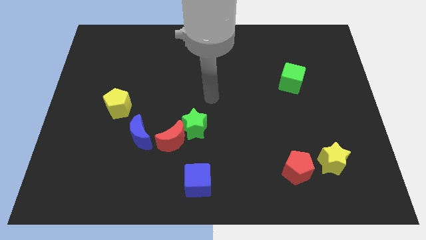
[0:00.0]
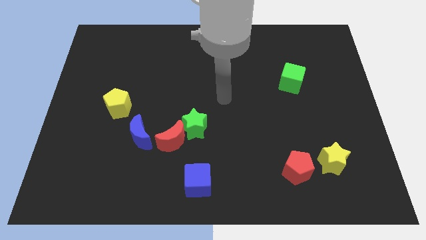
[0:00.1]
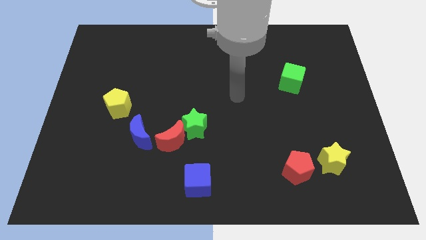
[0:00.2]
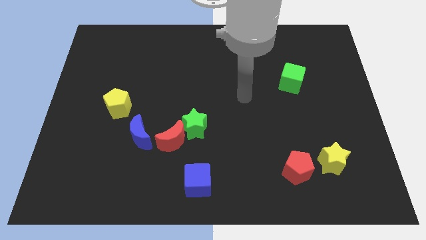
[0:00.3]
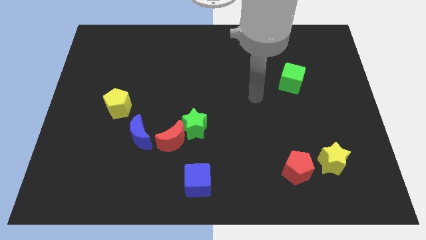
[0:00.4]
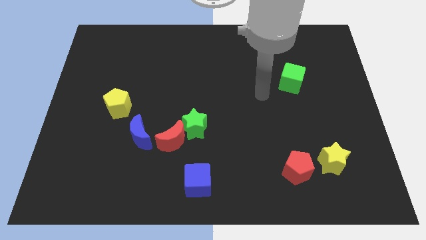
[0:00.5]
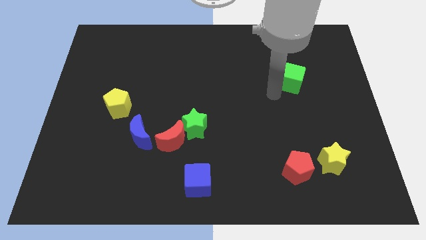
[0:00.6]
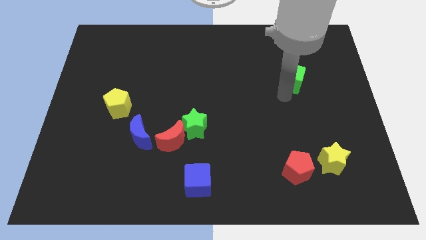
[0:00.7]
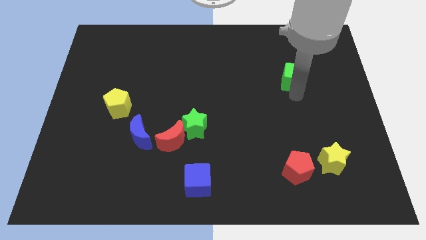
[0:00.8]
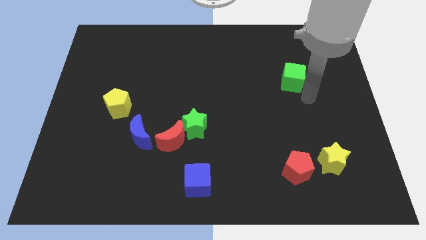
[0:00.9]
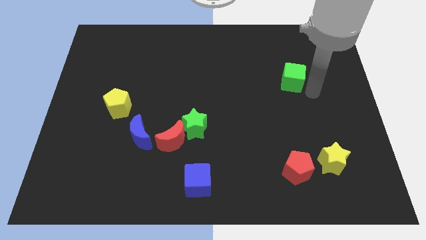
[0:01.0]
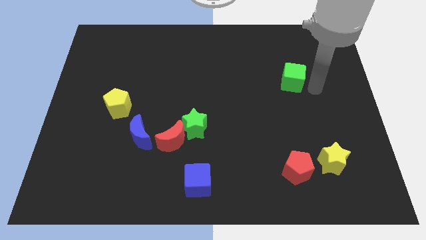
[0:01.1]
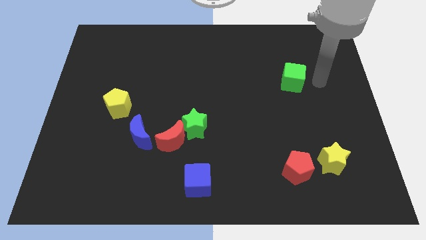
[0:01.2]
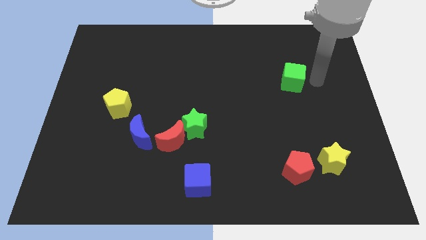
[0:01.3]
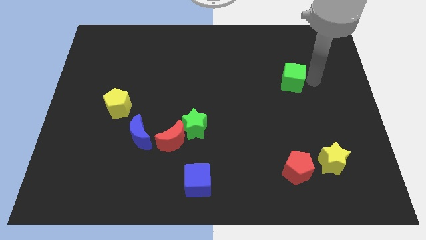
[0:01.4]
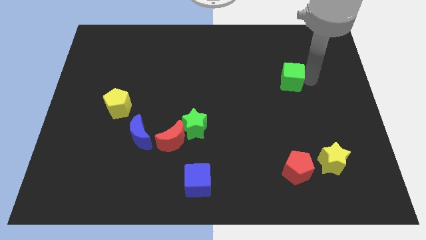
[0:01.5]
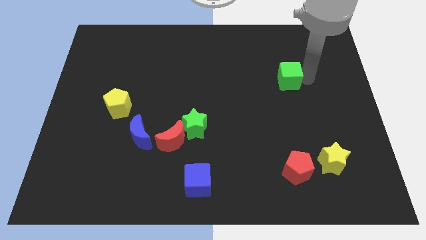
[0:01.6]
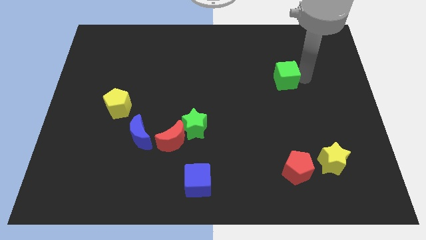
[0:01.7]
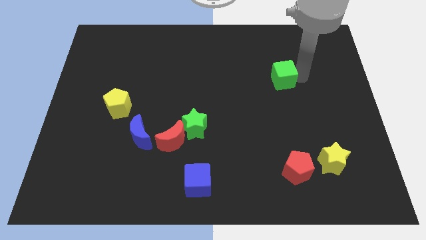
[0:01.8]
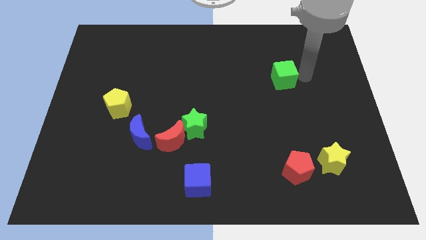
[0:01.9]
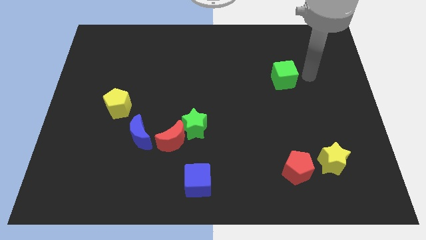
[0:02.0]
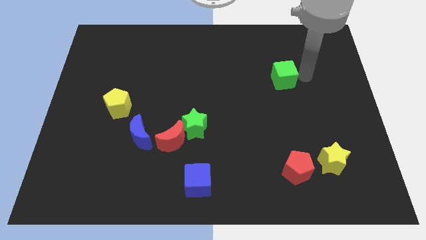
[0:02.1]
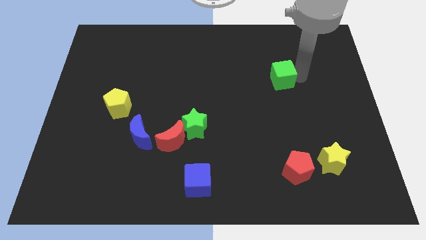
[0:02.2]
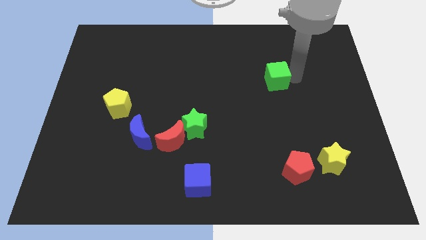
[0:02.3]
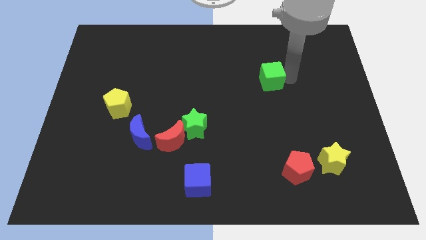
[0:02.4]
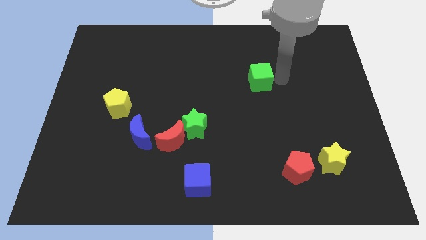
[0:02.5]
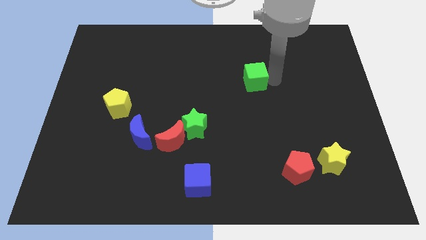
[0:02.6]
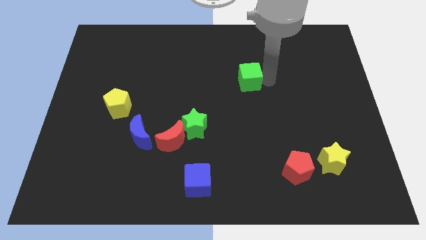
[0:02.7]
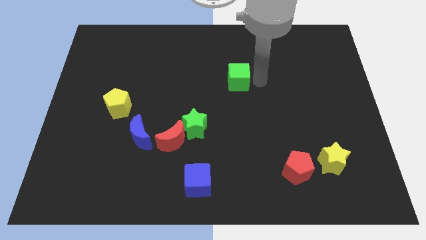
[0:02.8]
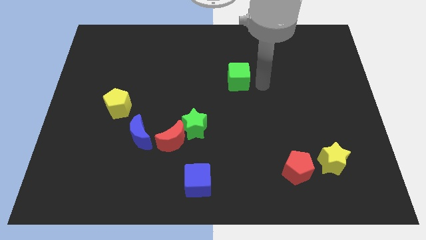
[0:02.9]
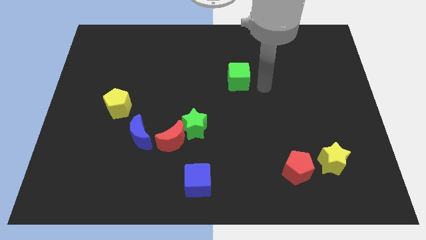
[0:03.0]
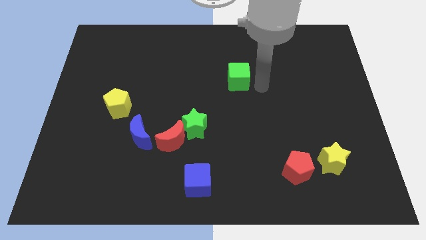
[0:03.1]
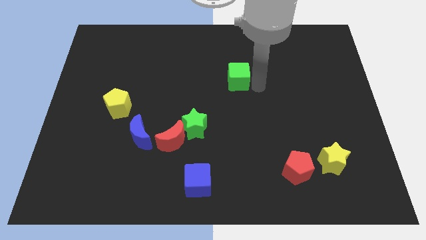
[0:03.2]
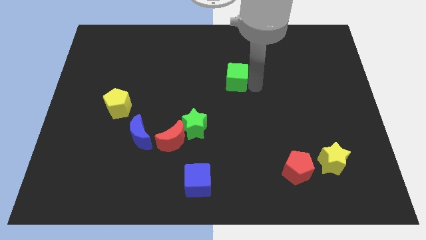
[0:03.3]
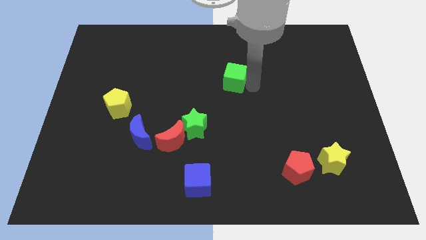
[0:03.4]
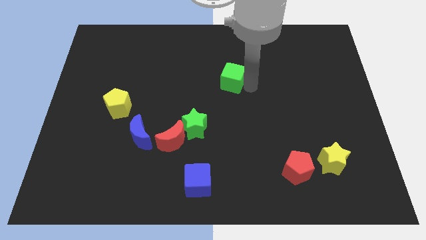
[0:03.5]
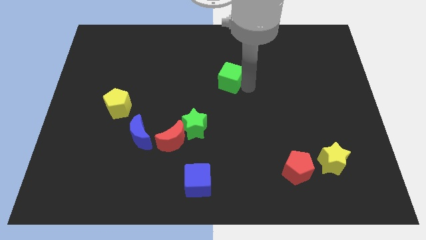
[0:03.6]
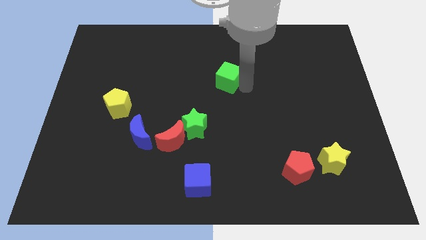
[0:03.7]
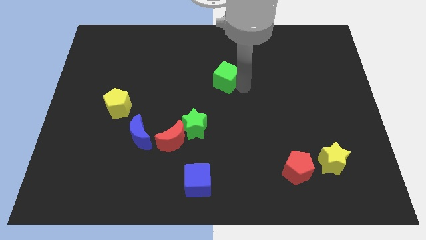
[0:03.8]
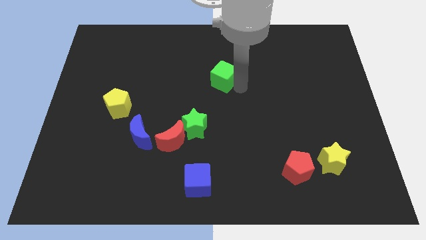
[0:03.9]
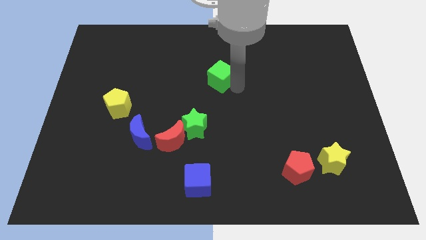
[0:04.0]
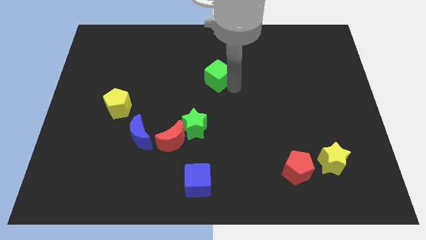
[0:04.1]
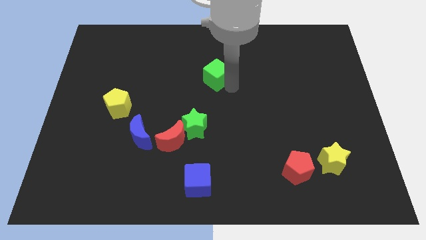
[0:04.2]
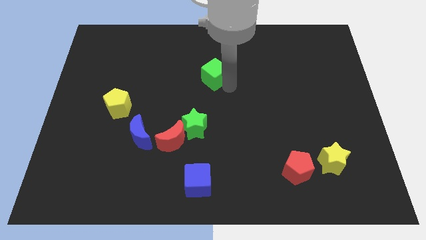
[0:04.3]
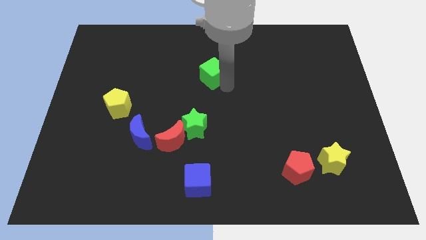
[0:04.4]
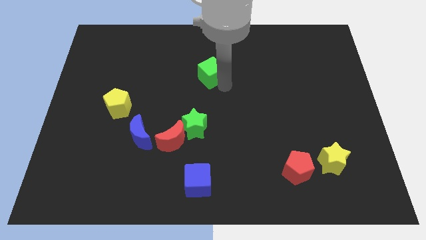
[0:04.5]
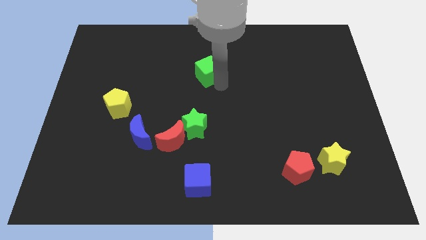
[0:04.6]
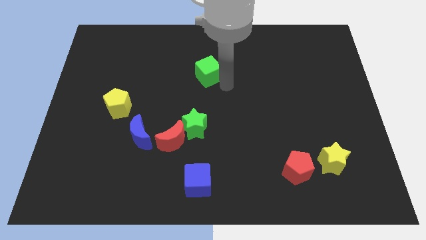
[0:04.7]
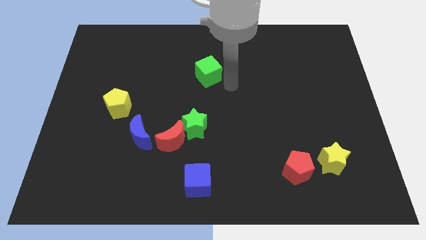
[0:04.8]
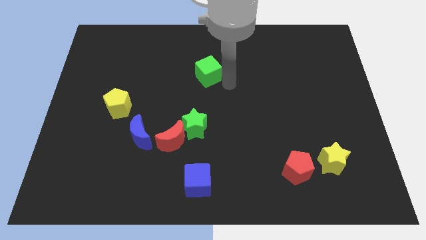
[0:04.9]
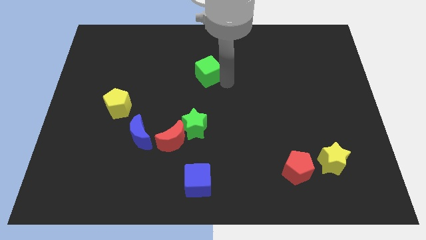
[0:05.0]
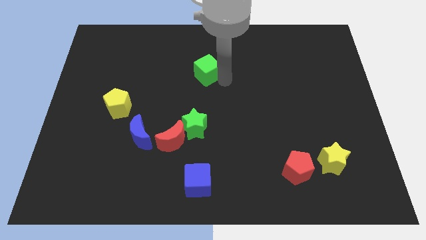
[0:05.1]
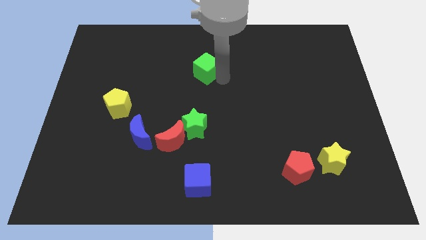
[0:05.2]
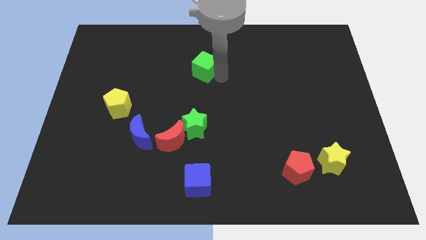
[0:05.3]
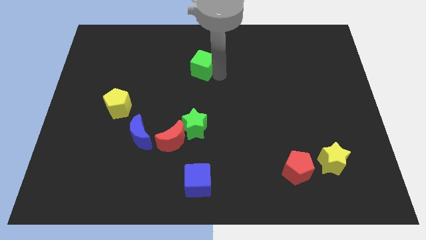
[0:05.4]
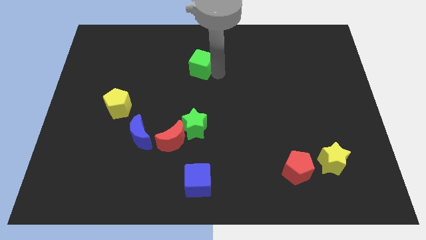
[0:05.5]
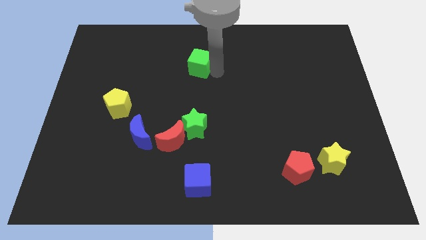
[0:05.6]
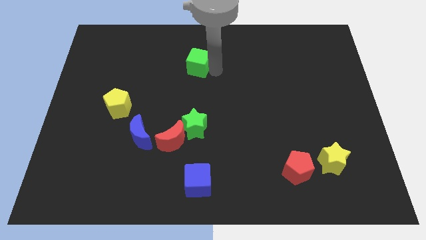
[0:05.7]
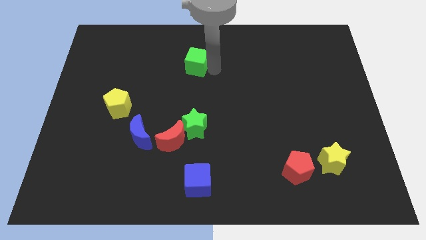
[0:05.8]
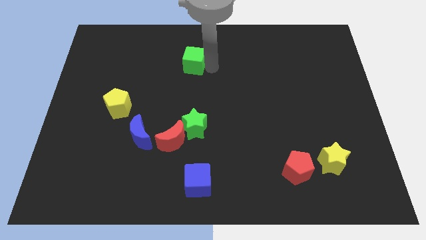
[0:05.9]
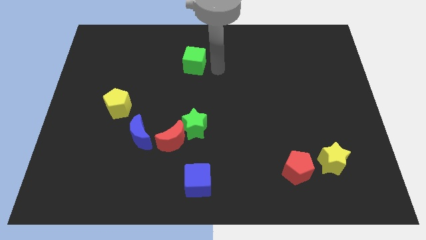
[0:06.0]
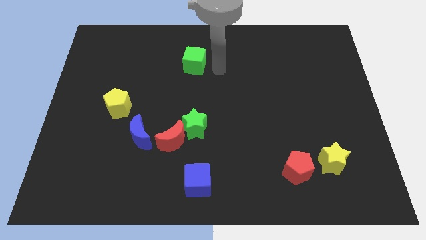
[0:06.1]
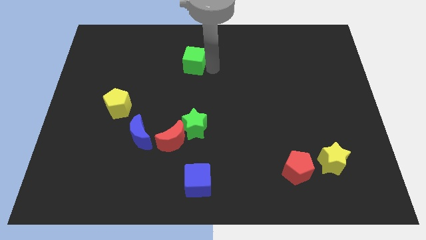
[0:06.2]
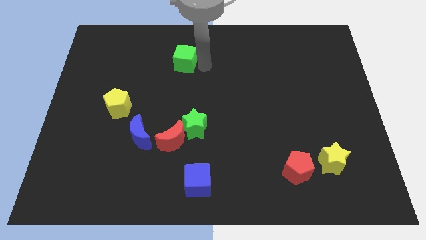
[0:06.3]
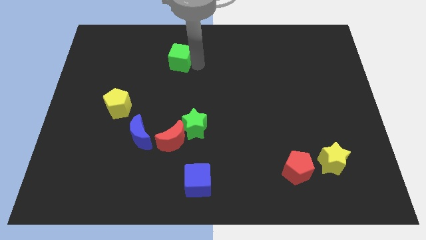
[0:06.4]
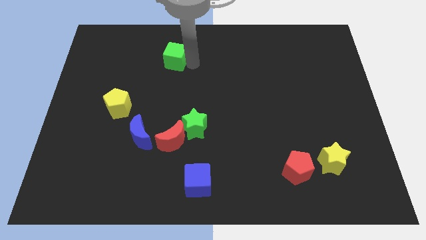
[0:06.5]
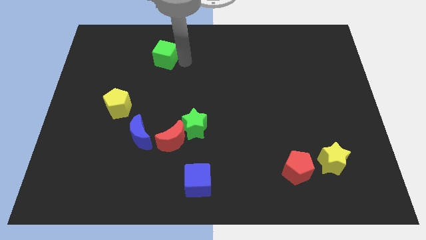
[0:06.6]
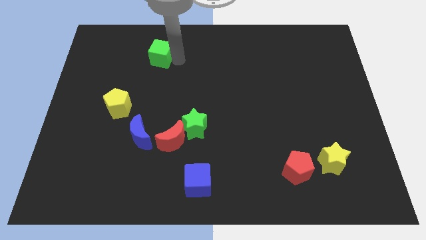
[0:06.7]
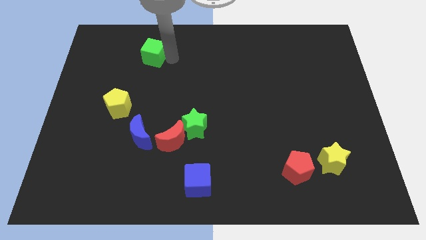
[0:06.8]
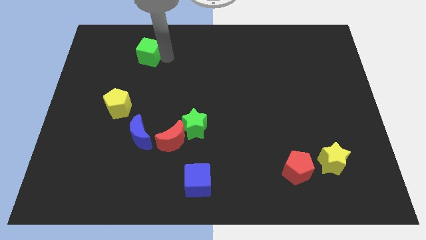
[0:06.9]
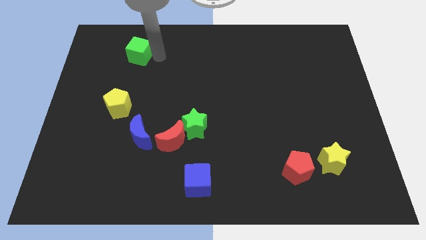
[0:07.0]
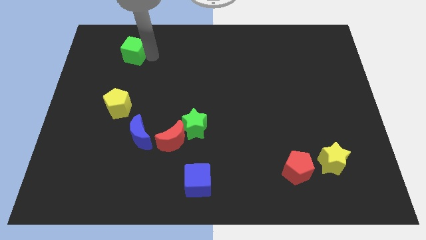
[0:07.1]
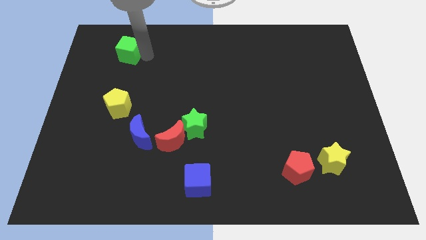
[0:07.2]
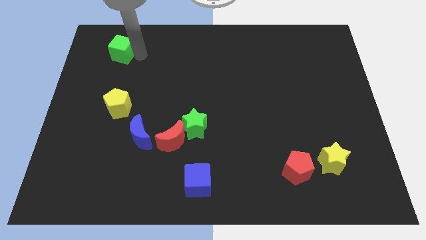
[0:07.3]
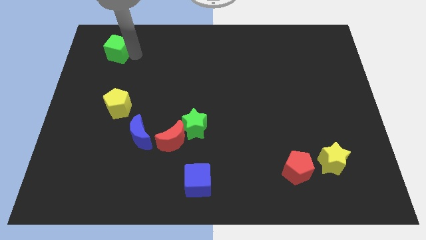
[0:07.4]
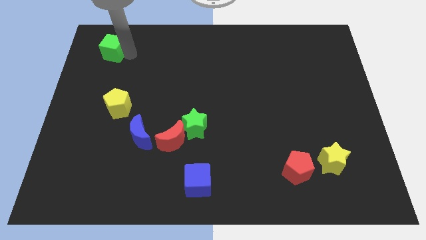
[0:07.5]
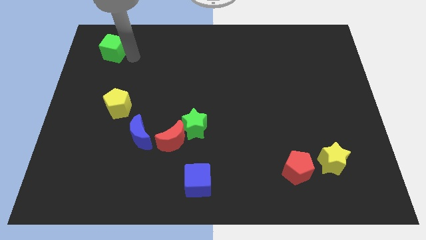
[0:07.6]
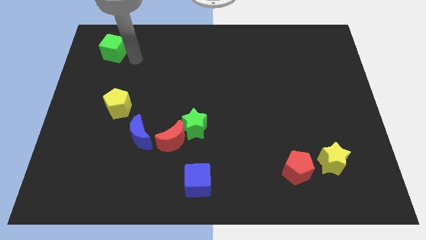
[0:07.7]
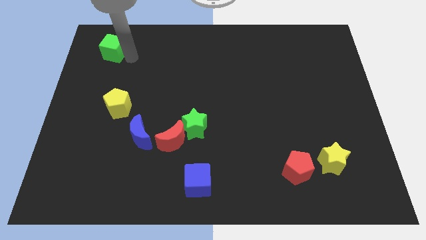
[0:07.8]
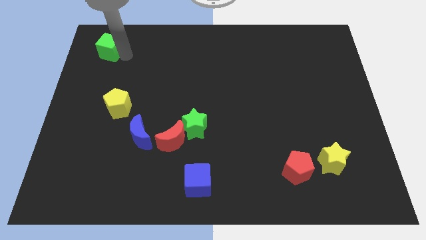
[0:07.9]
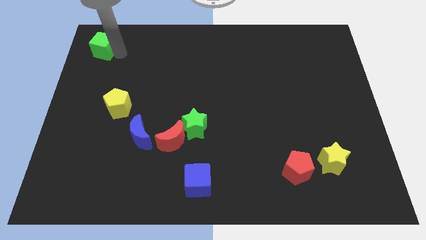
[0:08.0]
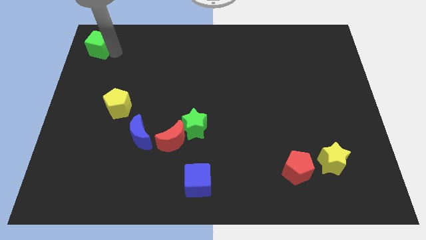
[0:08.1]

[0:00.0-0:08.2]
move the green cube to the top left

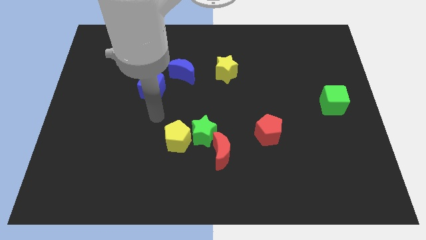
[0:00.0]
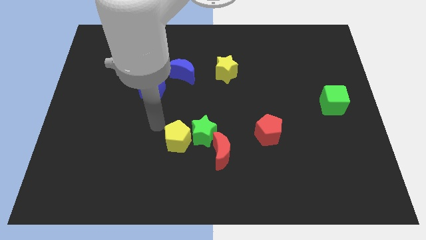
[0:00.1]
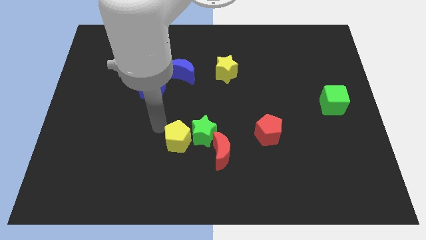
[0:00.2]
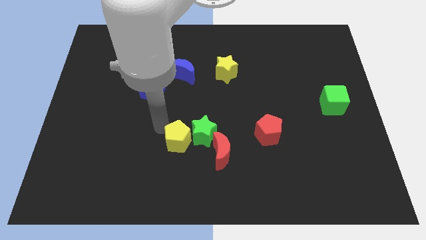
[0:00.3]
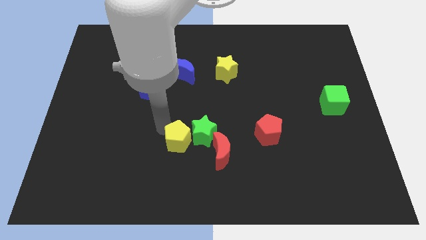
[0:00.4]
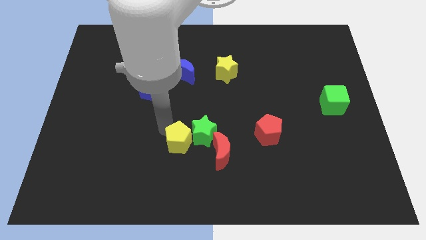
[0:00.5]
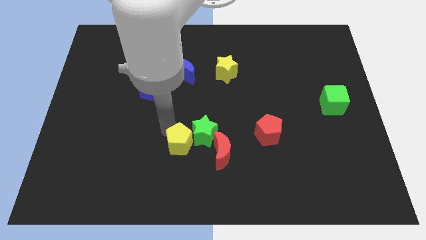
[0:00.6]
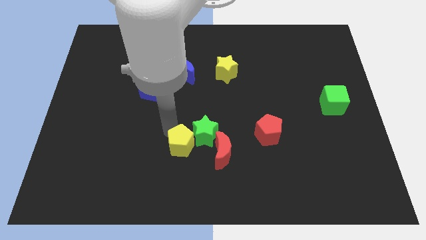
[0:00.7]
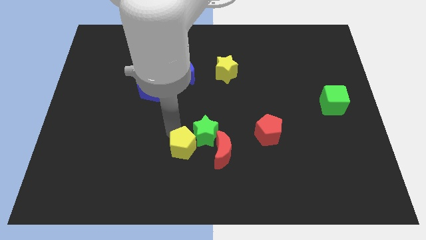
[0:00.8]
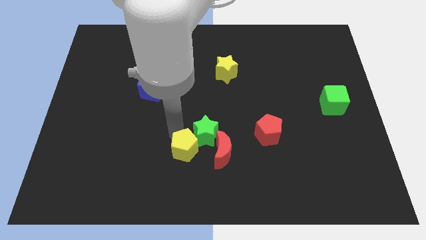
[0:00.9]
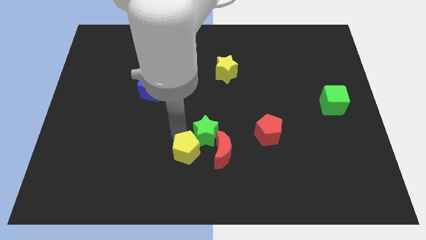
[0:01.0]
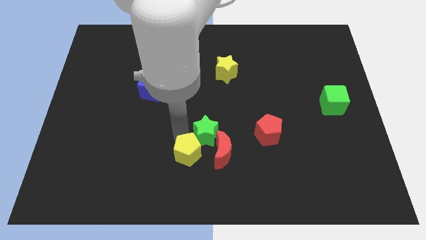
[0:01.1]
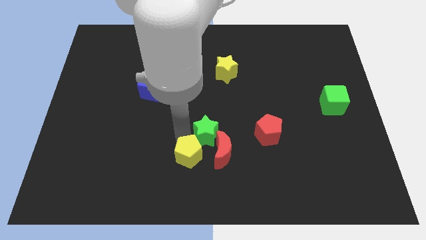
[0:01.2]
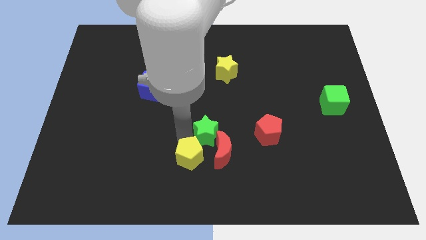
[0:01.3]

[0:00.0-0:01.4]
slide the yellow pentagon to the bottom
